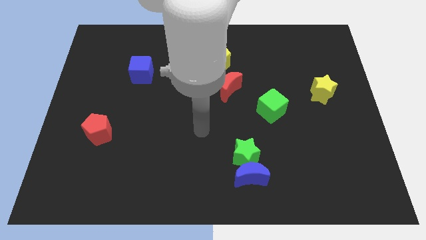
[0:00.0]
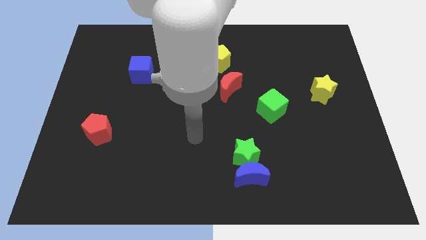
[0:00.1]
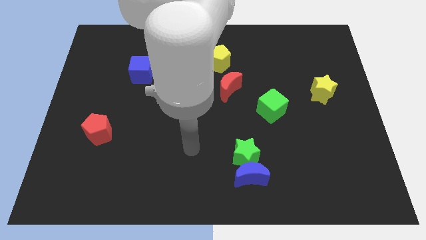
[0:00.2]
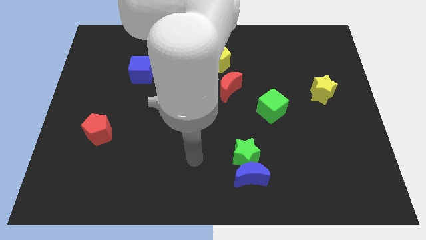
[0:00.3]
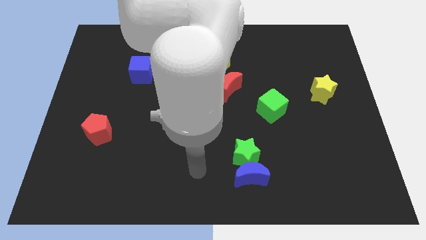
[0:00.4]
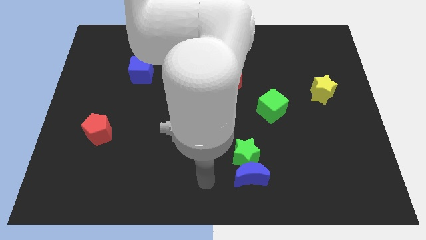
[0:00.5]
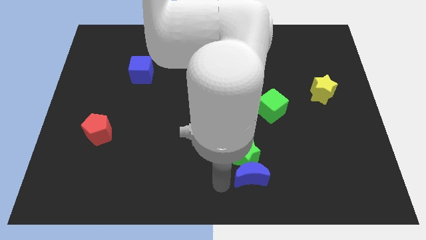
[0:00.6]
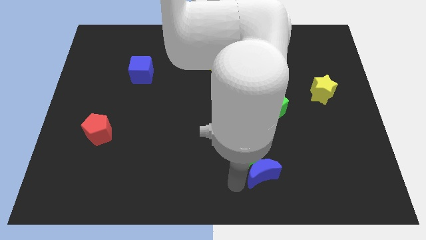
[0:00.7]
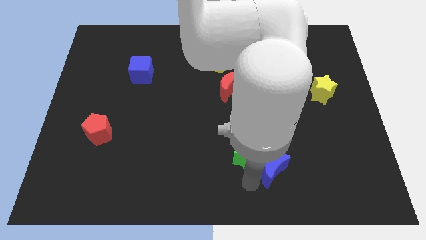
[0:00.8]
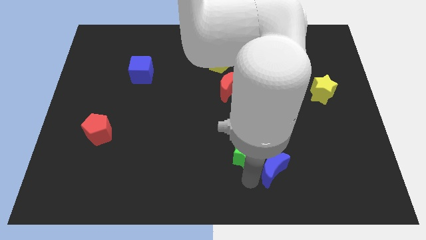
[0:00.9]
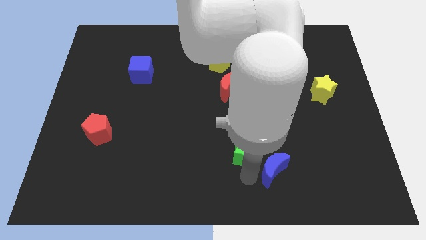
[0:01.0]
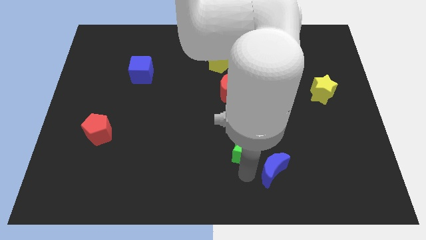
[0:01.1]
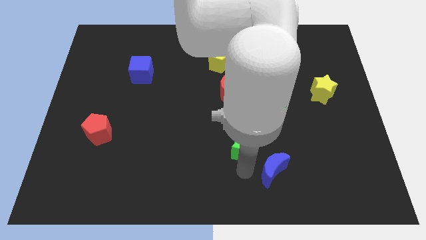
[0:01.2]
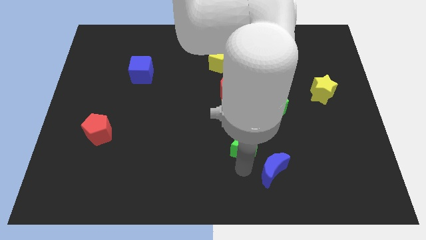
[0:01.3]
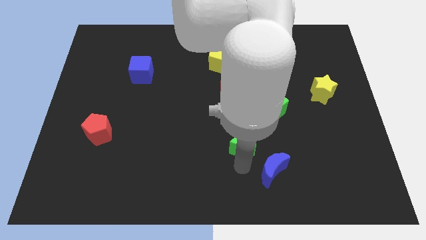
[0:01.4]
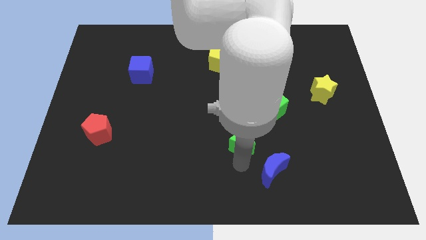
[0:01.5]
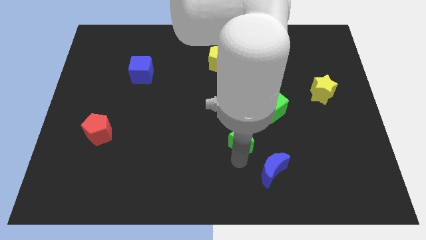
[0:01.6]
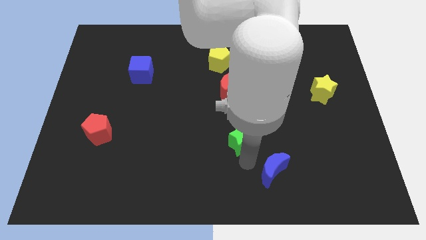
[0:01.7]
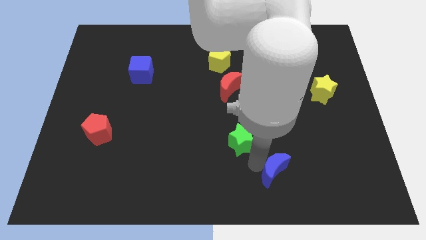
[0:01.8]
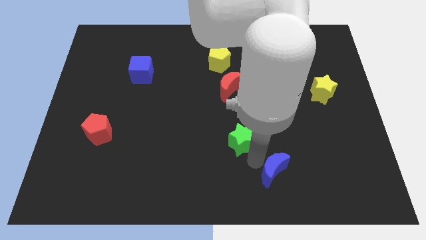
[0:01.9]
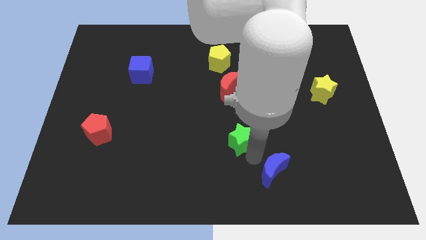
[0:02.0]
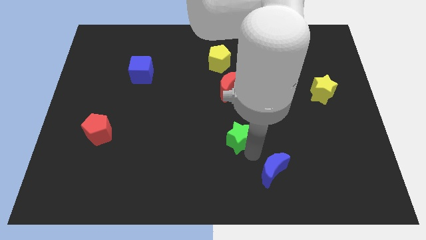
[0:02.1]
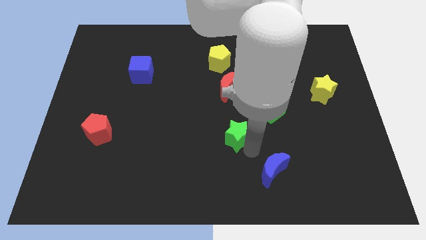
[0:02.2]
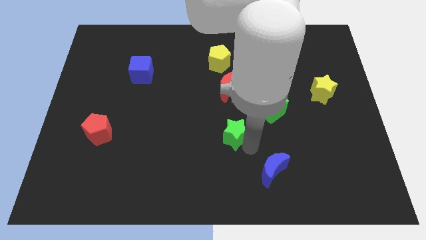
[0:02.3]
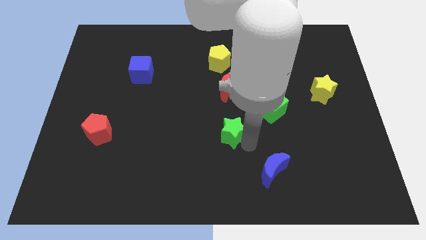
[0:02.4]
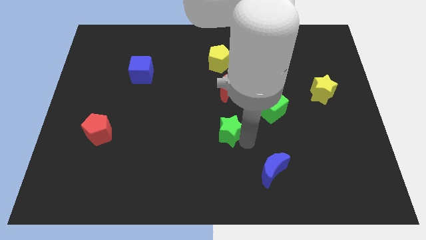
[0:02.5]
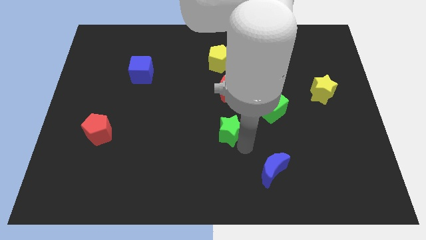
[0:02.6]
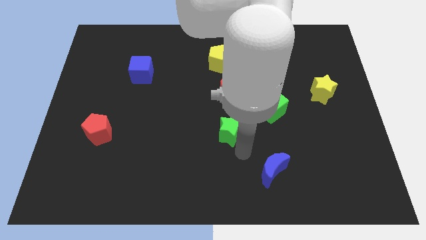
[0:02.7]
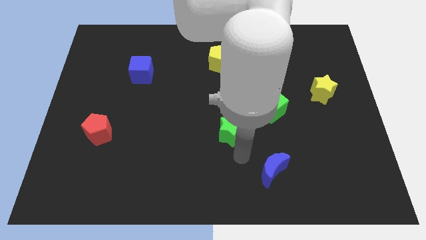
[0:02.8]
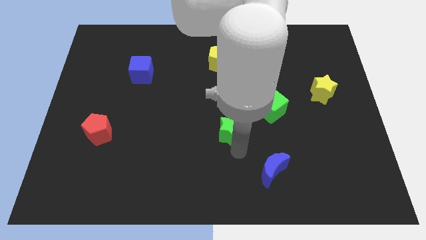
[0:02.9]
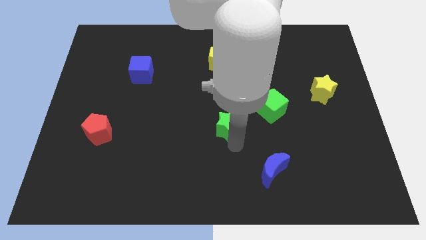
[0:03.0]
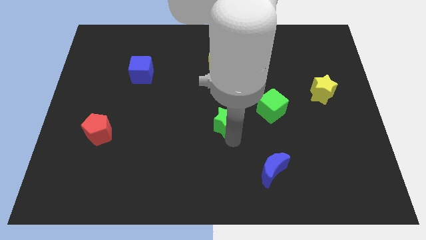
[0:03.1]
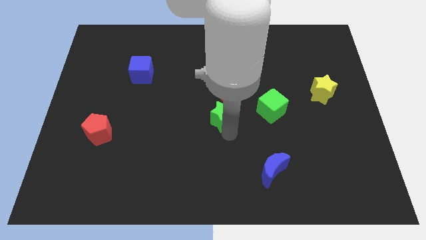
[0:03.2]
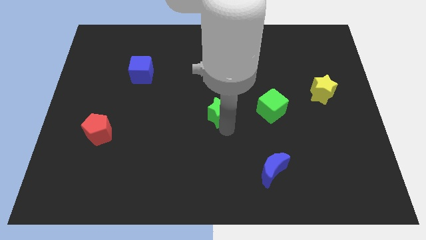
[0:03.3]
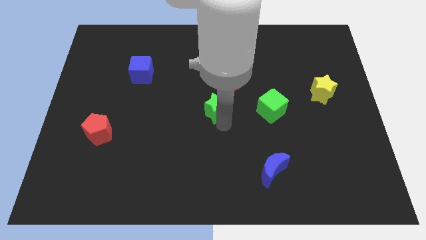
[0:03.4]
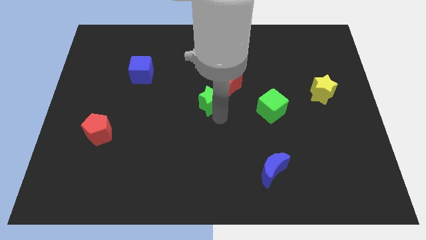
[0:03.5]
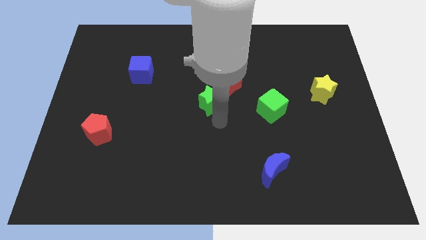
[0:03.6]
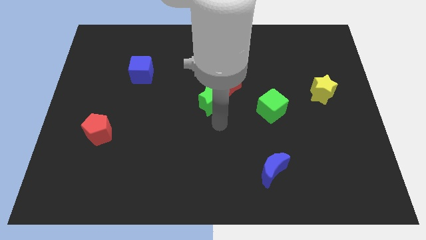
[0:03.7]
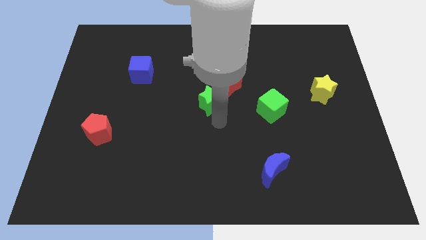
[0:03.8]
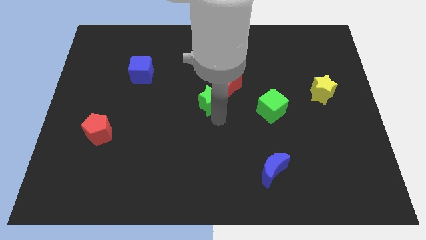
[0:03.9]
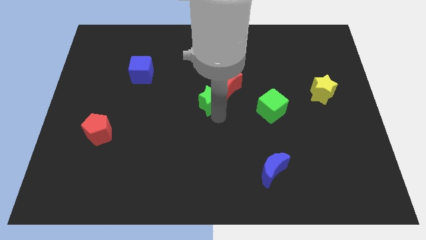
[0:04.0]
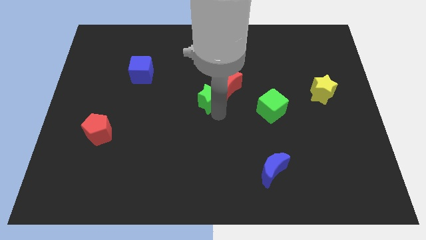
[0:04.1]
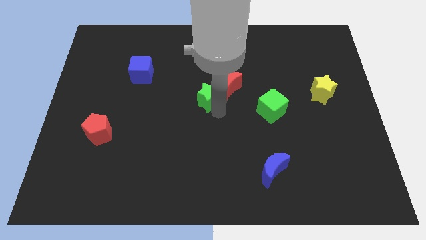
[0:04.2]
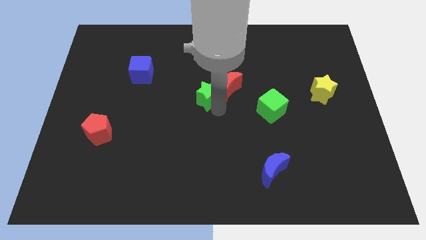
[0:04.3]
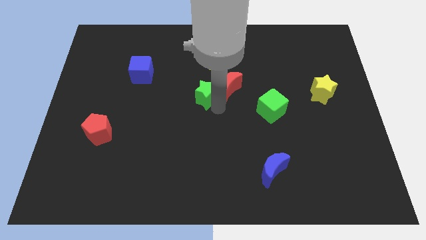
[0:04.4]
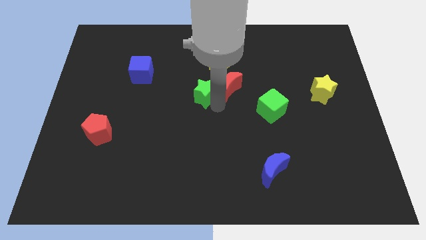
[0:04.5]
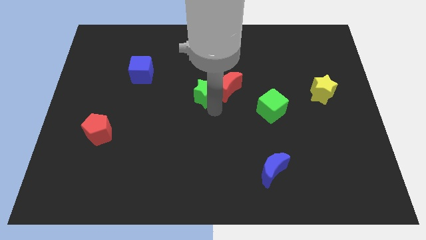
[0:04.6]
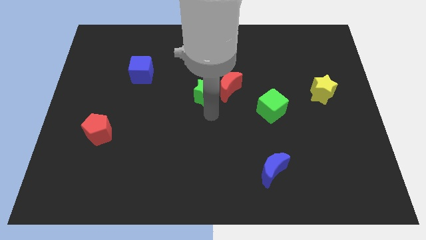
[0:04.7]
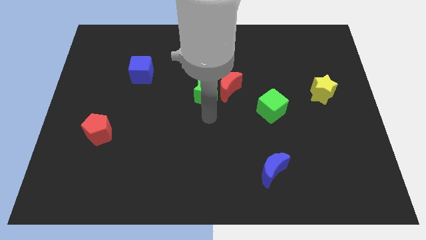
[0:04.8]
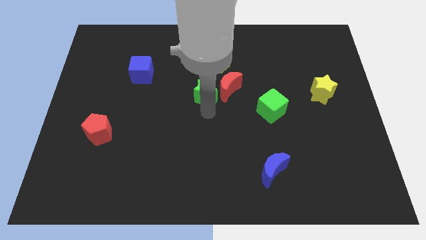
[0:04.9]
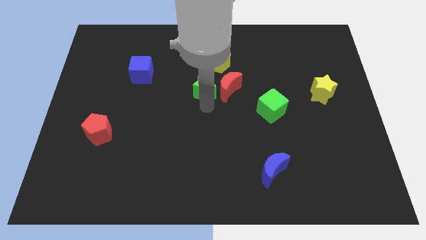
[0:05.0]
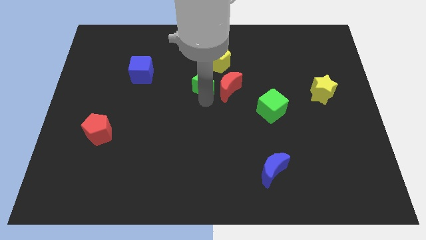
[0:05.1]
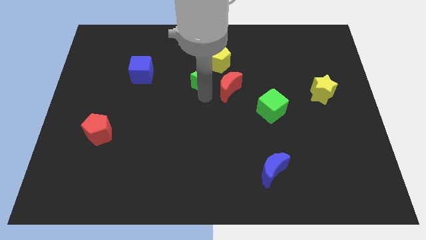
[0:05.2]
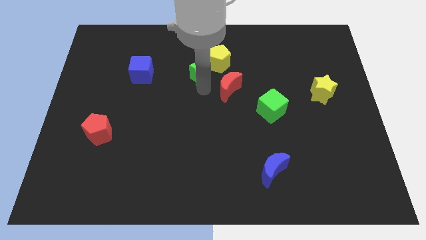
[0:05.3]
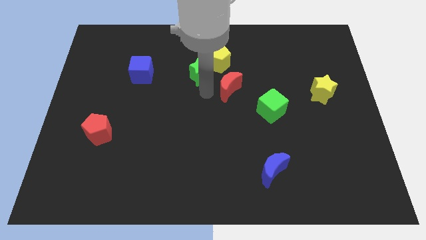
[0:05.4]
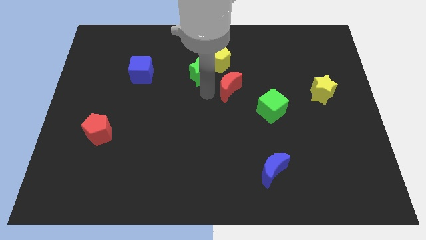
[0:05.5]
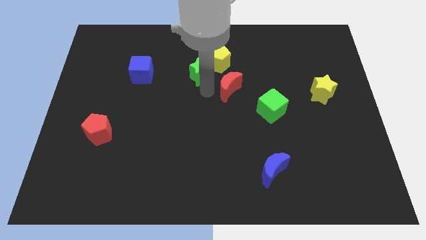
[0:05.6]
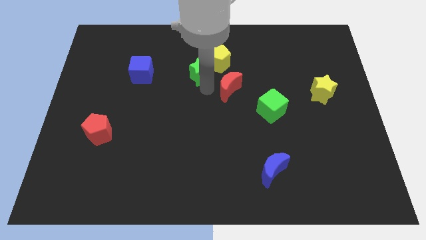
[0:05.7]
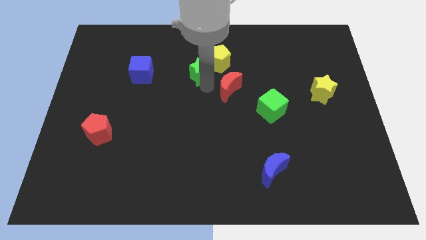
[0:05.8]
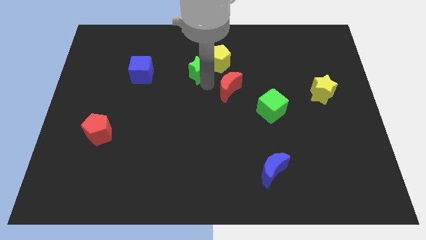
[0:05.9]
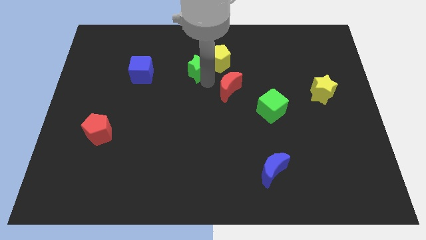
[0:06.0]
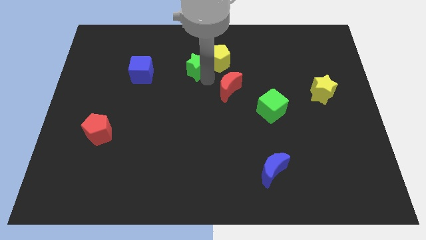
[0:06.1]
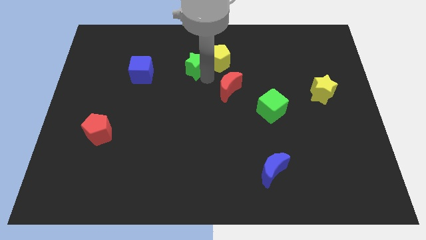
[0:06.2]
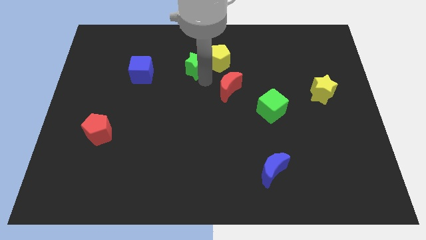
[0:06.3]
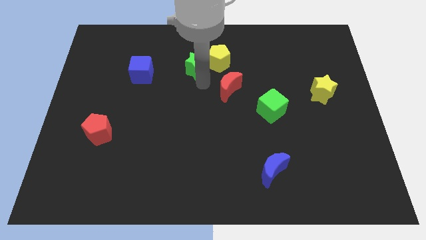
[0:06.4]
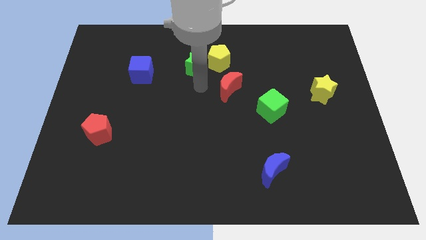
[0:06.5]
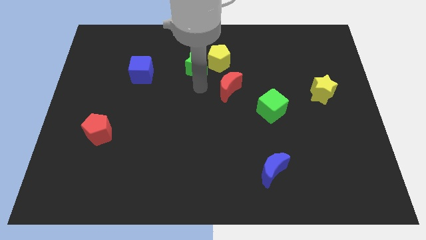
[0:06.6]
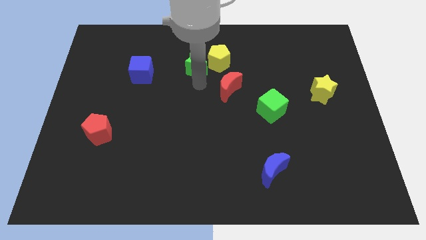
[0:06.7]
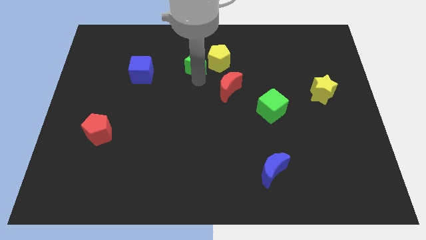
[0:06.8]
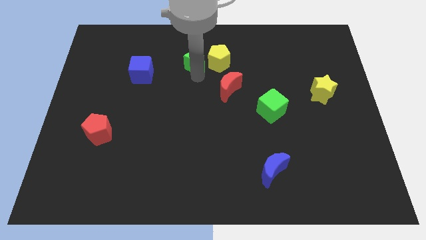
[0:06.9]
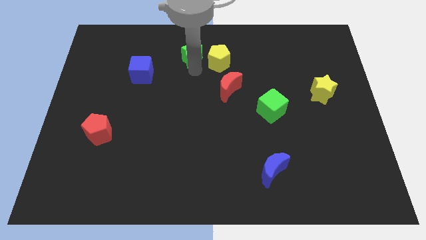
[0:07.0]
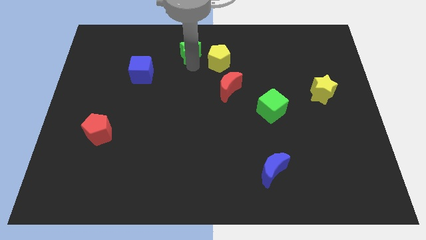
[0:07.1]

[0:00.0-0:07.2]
move the green star to the towards your base
